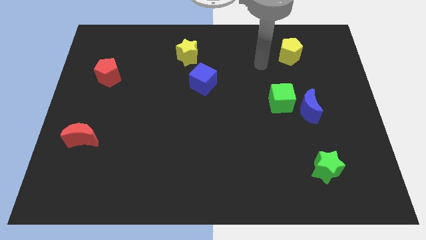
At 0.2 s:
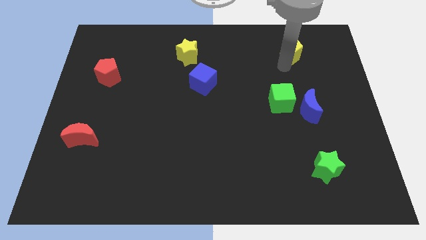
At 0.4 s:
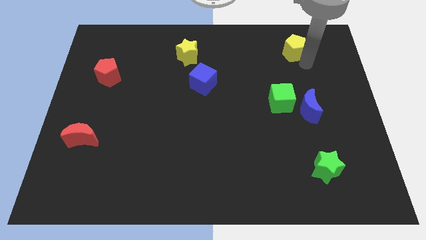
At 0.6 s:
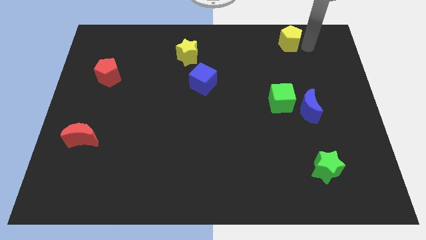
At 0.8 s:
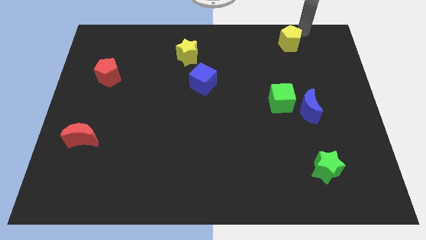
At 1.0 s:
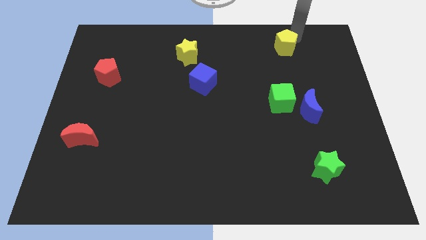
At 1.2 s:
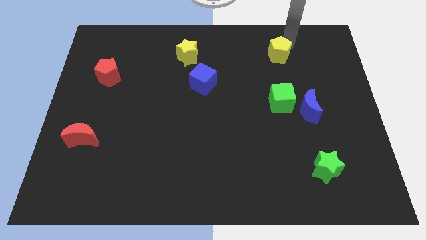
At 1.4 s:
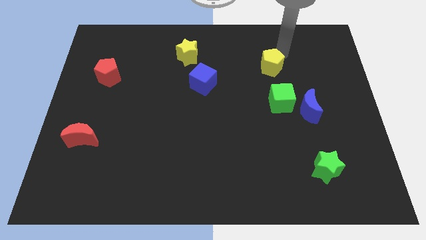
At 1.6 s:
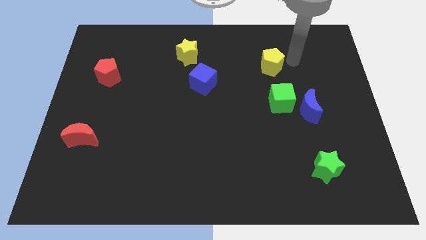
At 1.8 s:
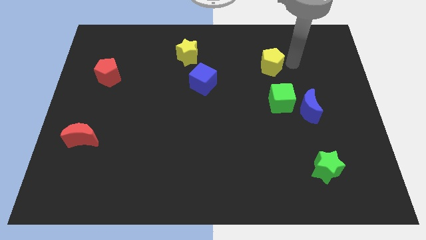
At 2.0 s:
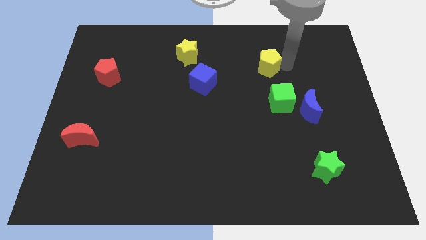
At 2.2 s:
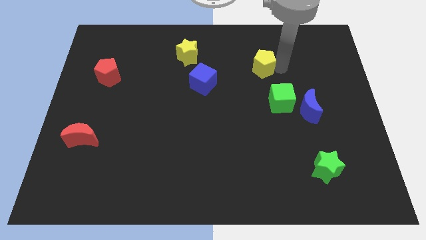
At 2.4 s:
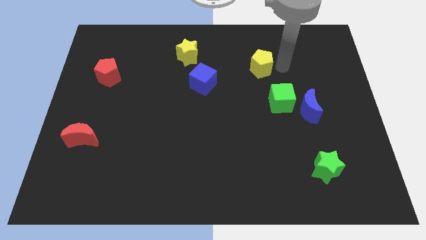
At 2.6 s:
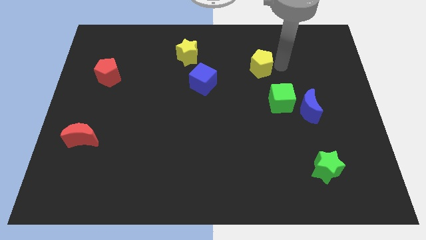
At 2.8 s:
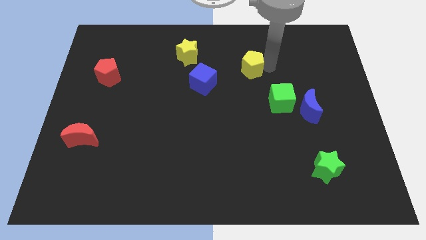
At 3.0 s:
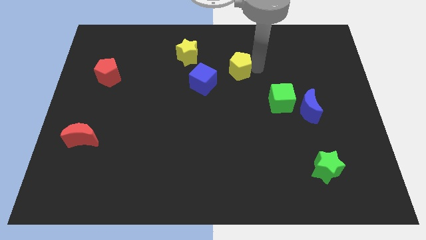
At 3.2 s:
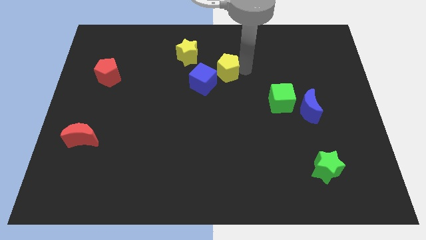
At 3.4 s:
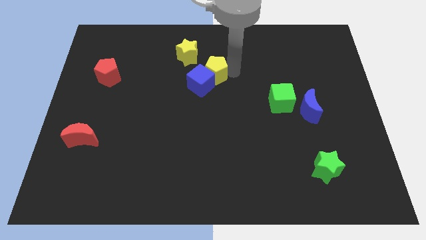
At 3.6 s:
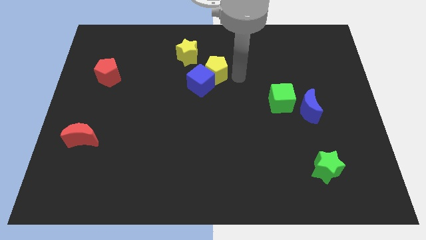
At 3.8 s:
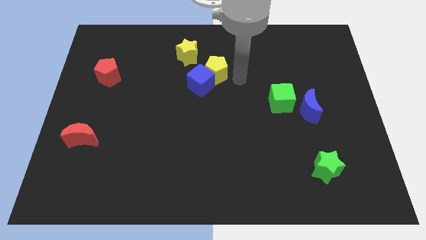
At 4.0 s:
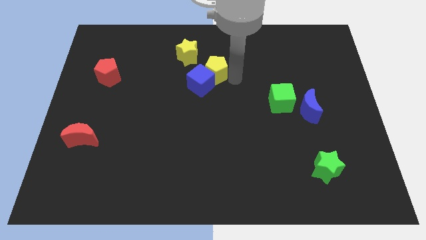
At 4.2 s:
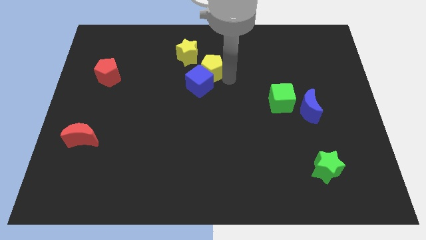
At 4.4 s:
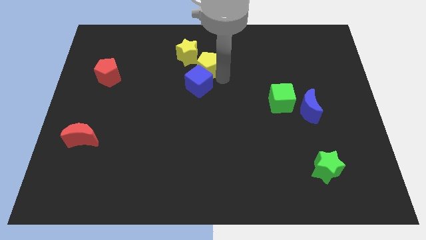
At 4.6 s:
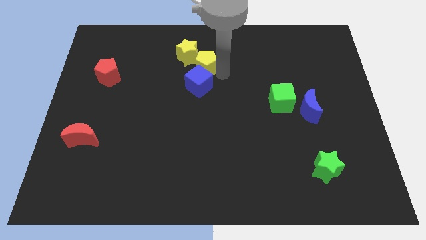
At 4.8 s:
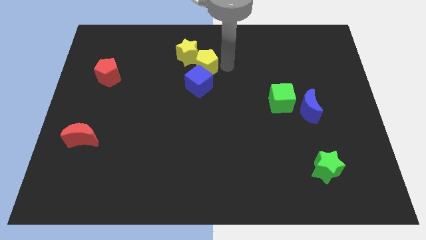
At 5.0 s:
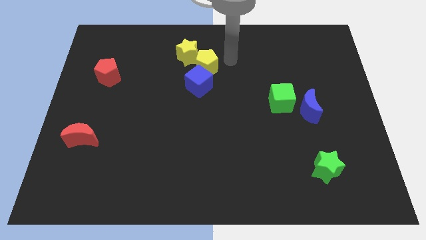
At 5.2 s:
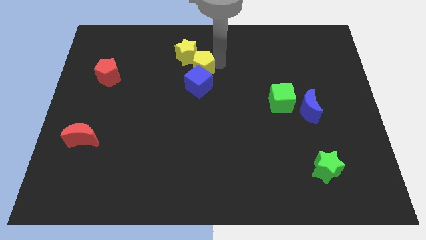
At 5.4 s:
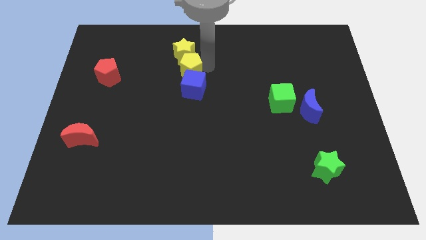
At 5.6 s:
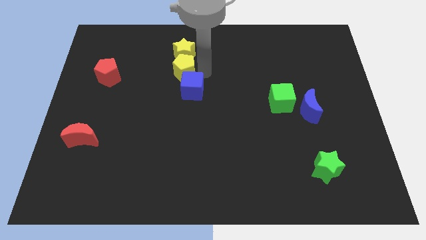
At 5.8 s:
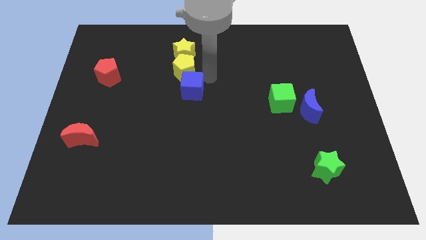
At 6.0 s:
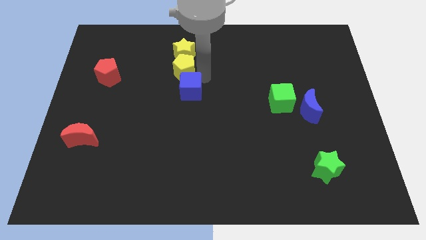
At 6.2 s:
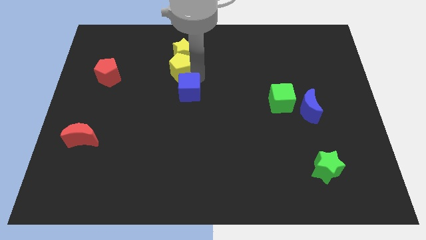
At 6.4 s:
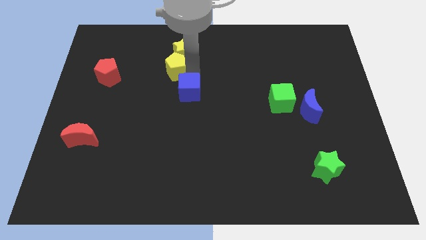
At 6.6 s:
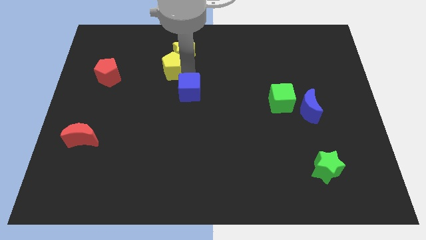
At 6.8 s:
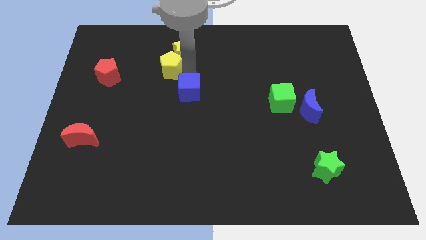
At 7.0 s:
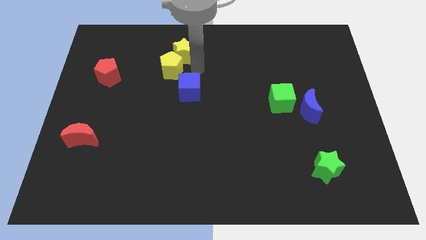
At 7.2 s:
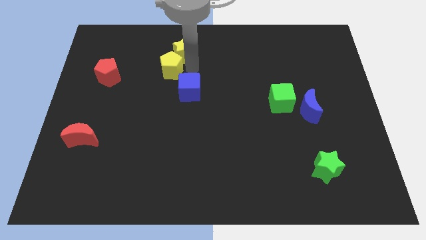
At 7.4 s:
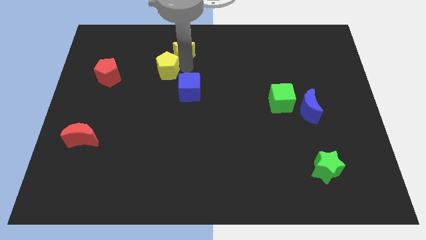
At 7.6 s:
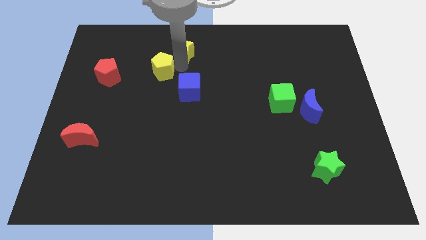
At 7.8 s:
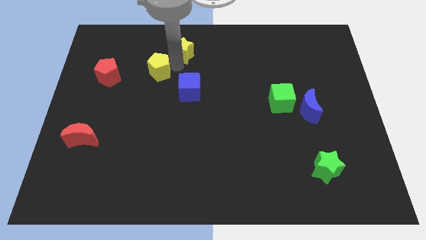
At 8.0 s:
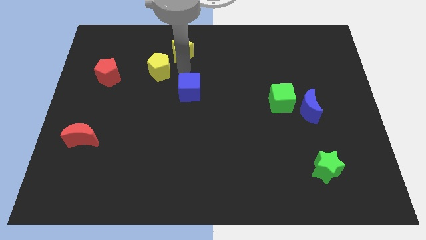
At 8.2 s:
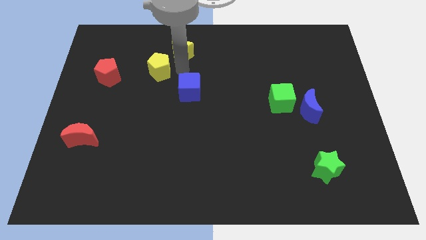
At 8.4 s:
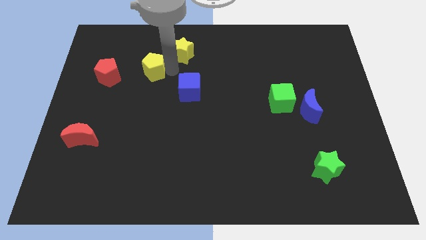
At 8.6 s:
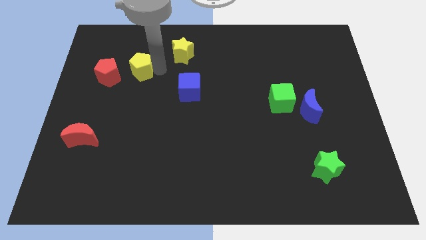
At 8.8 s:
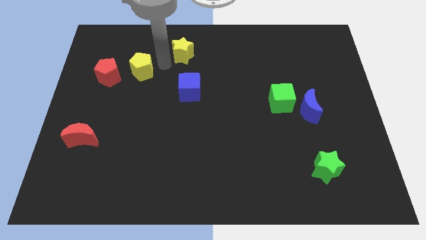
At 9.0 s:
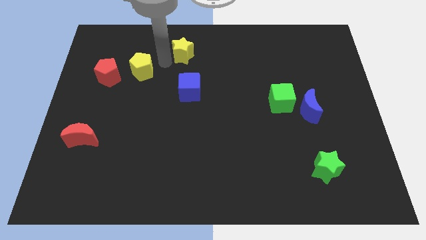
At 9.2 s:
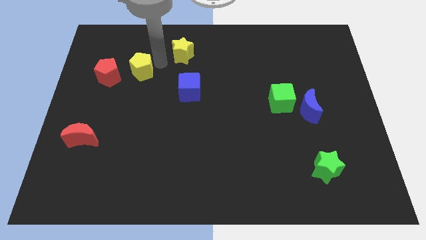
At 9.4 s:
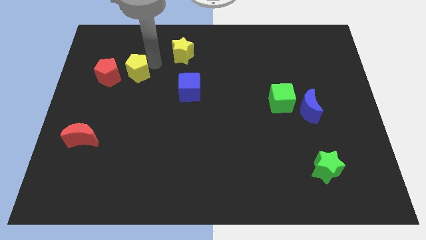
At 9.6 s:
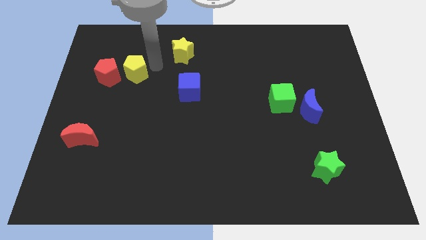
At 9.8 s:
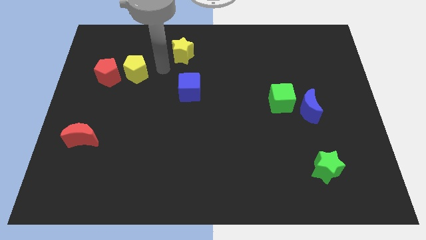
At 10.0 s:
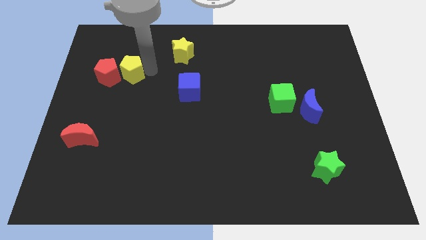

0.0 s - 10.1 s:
push the yellow pentagon to the red pentagon

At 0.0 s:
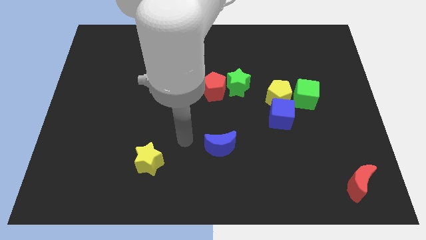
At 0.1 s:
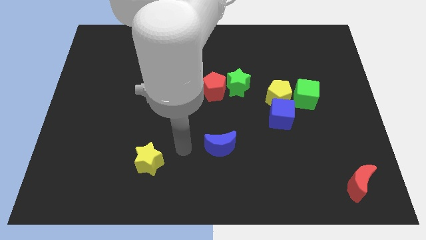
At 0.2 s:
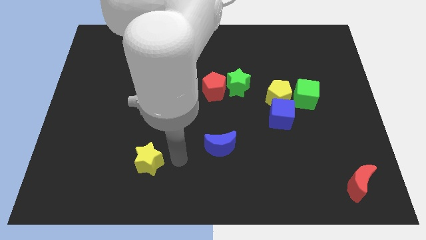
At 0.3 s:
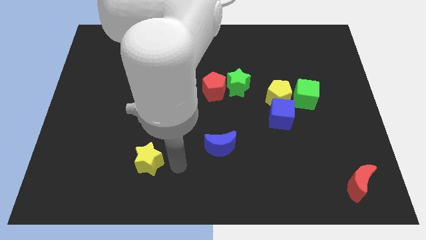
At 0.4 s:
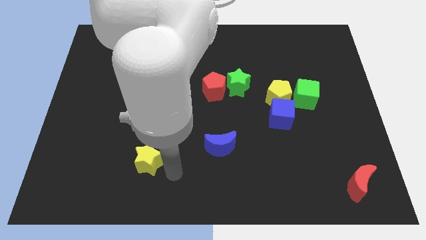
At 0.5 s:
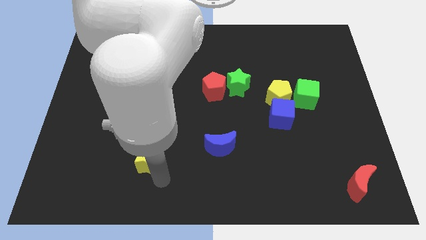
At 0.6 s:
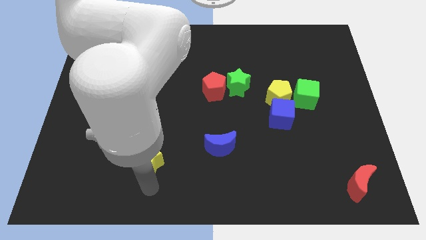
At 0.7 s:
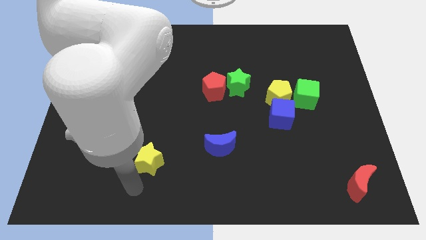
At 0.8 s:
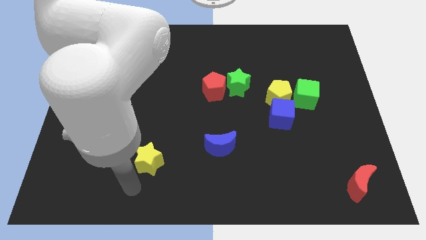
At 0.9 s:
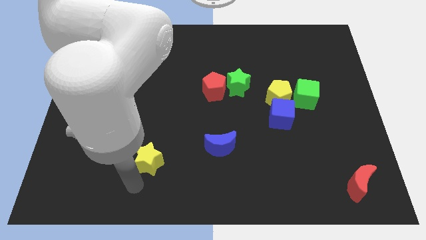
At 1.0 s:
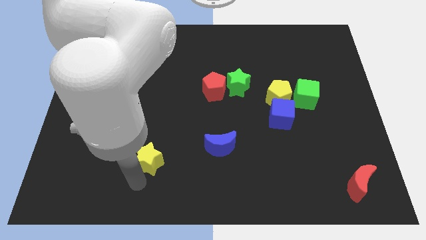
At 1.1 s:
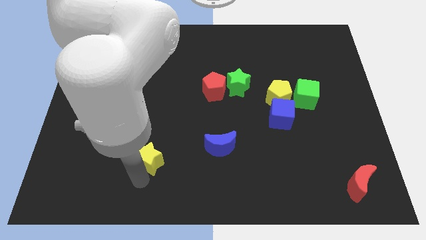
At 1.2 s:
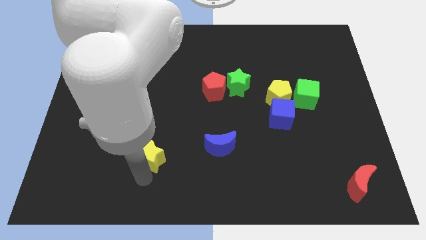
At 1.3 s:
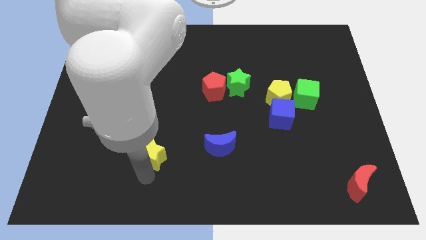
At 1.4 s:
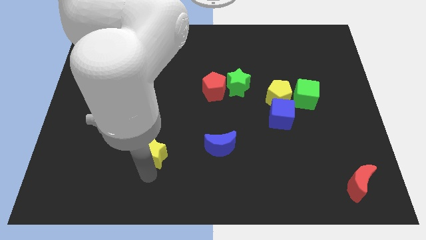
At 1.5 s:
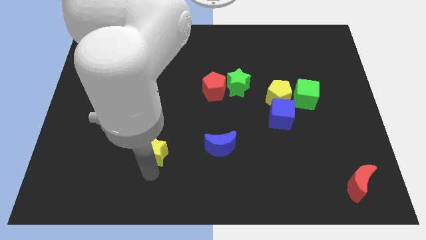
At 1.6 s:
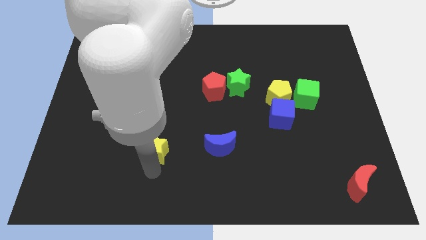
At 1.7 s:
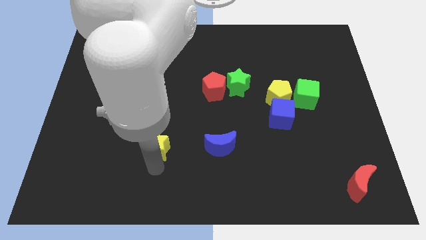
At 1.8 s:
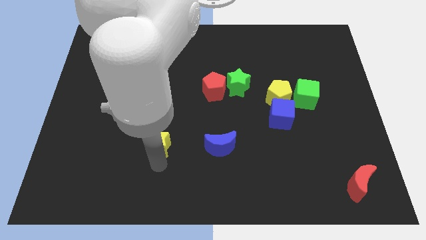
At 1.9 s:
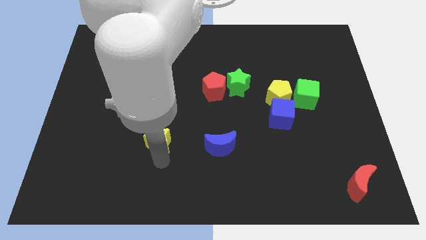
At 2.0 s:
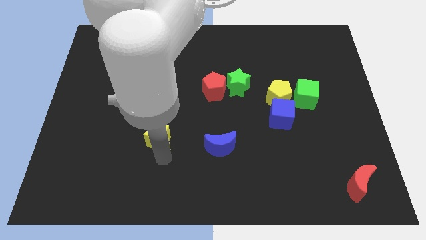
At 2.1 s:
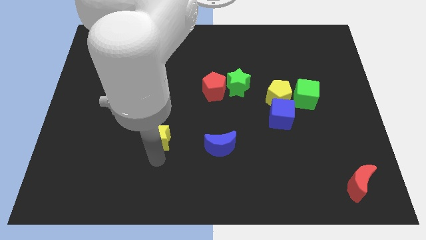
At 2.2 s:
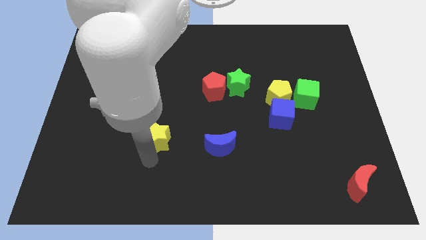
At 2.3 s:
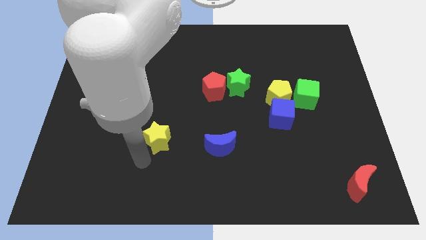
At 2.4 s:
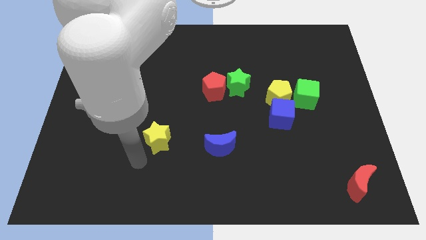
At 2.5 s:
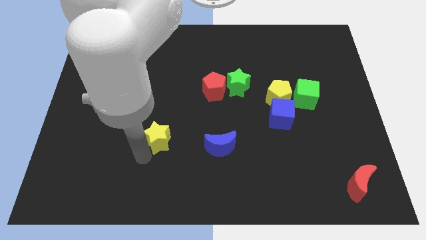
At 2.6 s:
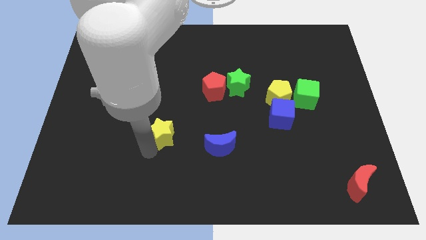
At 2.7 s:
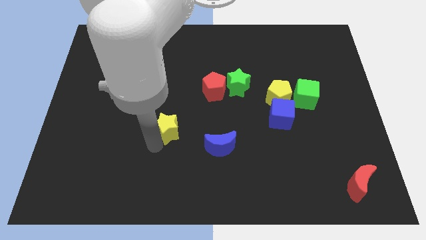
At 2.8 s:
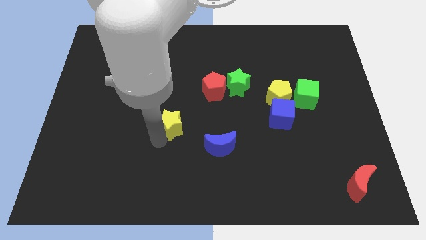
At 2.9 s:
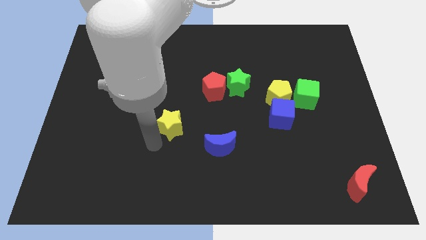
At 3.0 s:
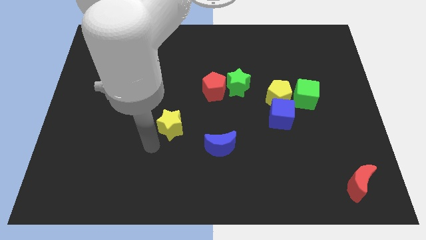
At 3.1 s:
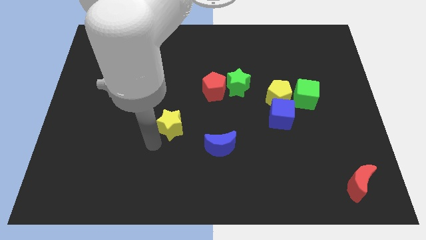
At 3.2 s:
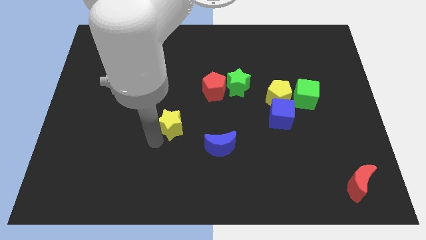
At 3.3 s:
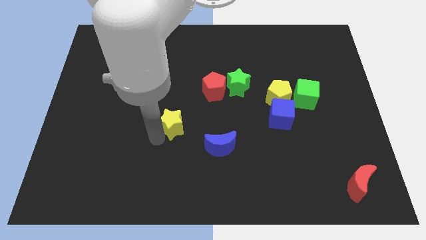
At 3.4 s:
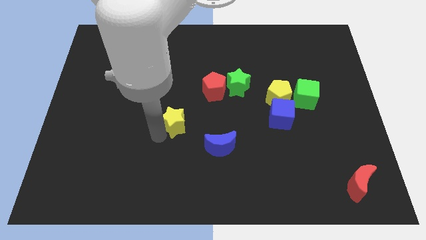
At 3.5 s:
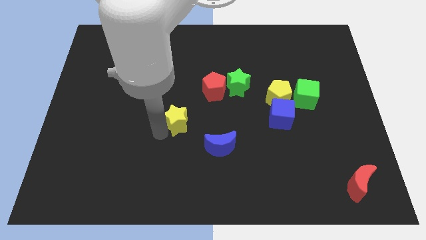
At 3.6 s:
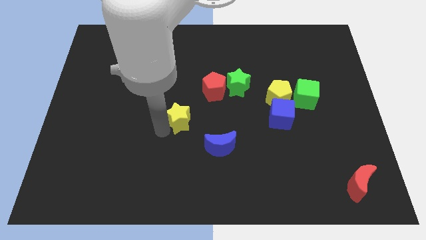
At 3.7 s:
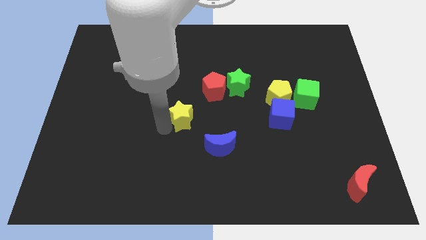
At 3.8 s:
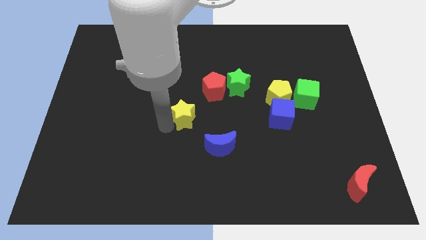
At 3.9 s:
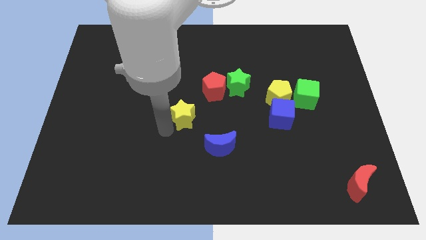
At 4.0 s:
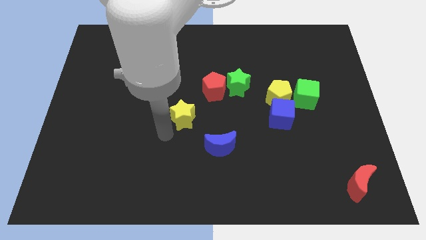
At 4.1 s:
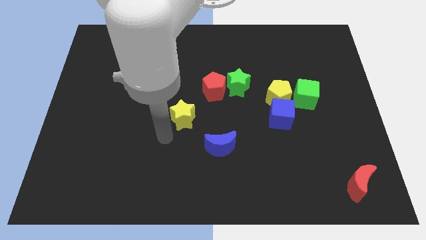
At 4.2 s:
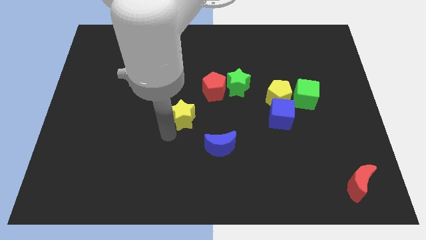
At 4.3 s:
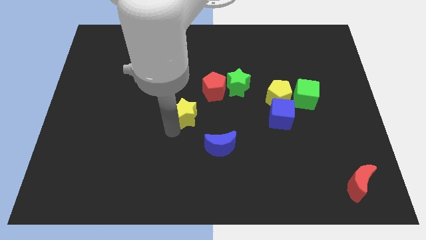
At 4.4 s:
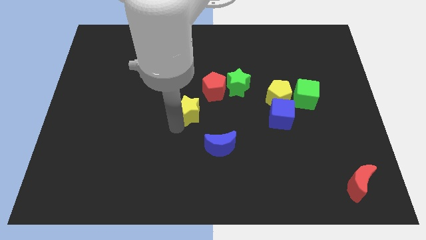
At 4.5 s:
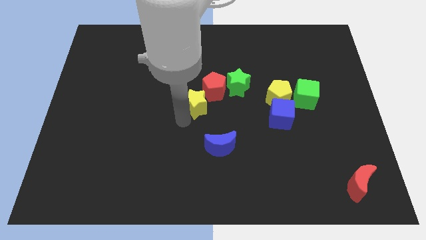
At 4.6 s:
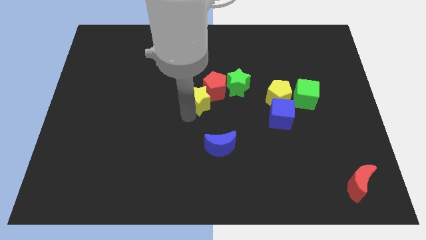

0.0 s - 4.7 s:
move the yellow star to the red pentagon
